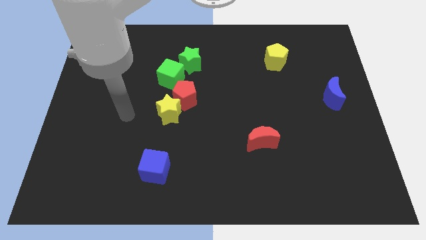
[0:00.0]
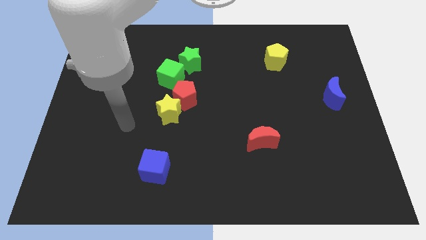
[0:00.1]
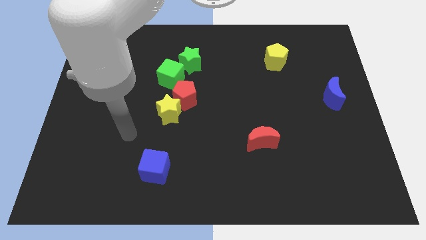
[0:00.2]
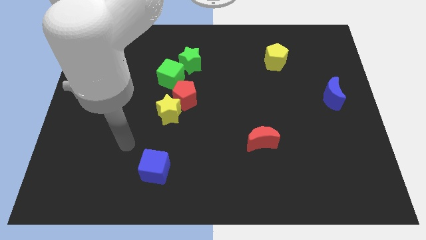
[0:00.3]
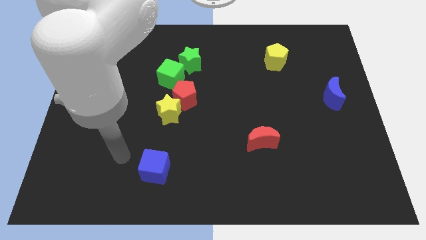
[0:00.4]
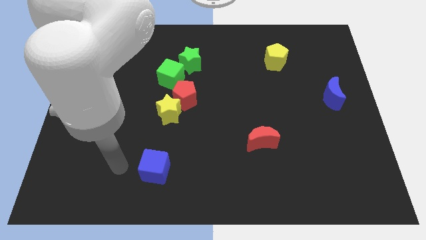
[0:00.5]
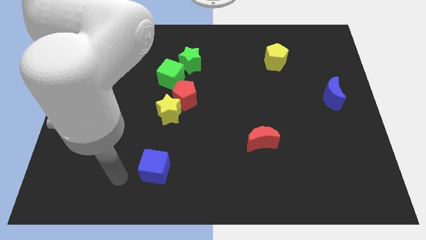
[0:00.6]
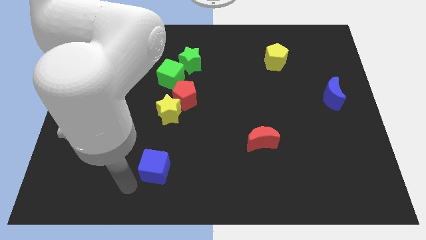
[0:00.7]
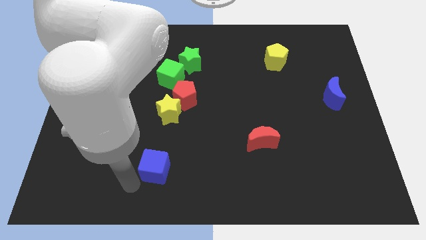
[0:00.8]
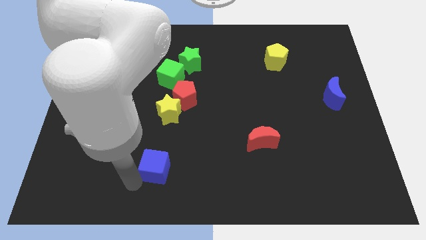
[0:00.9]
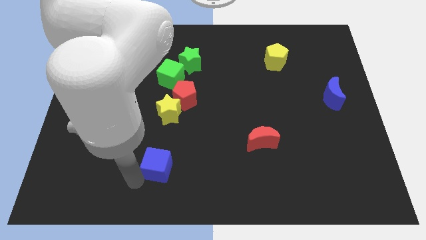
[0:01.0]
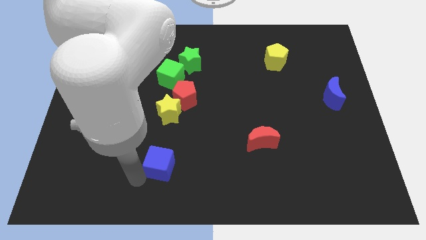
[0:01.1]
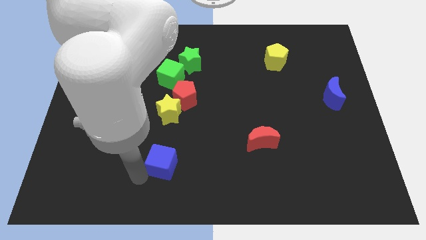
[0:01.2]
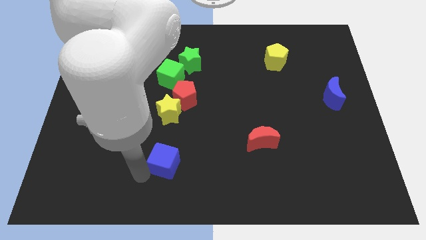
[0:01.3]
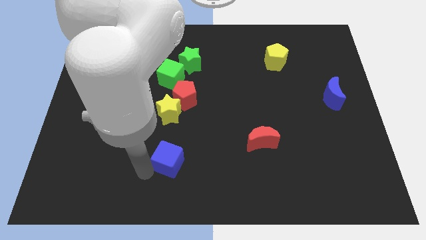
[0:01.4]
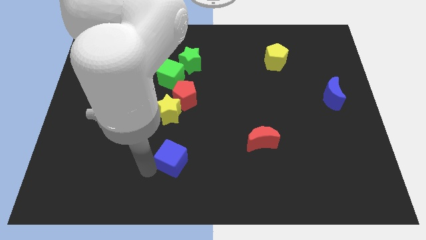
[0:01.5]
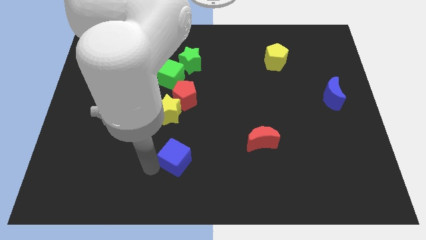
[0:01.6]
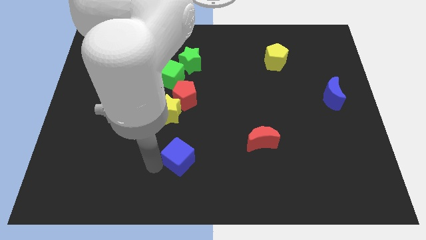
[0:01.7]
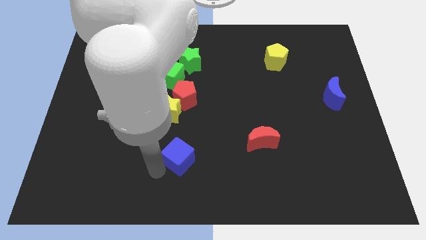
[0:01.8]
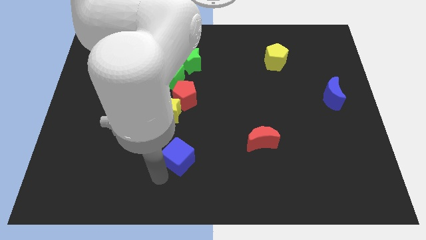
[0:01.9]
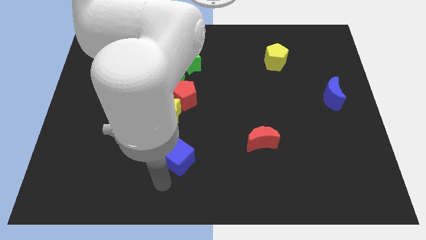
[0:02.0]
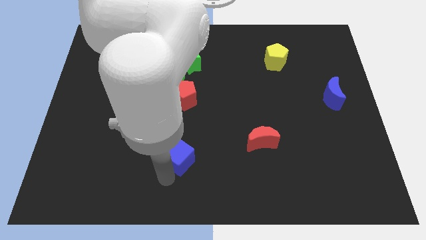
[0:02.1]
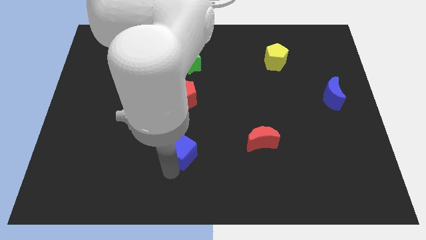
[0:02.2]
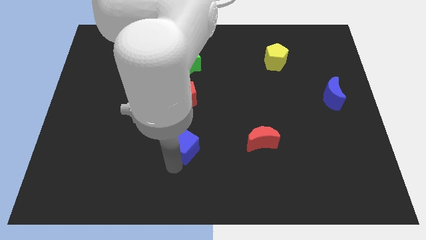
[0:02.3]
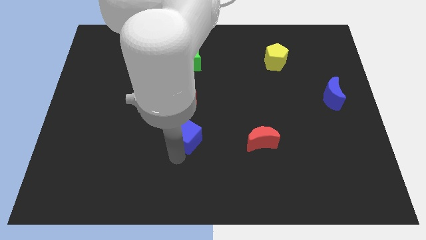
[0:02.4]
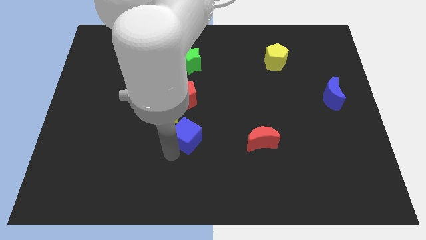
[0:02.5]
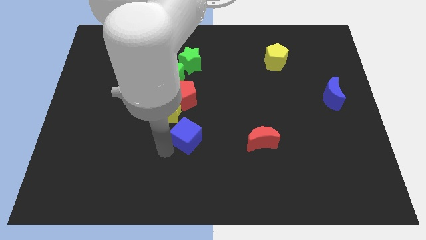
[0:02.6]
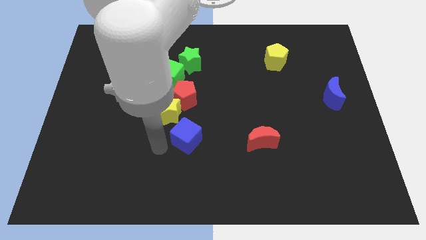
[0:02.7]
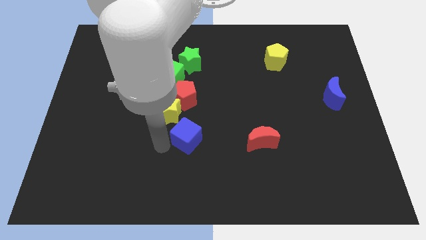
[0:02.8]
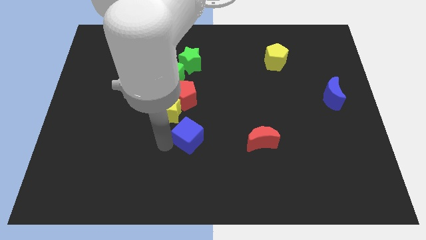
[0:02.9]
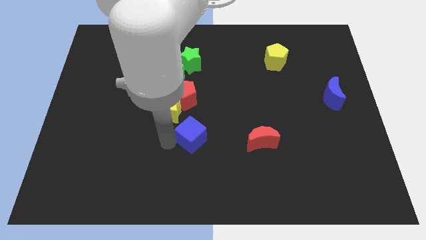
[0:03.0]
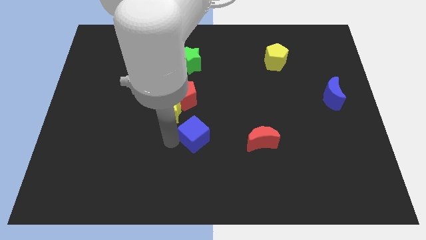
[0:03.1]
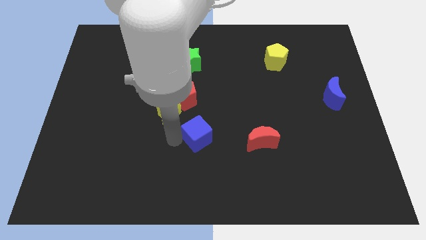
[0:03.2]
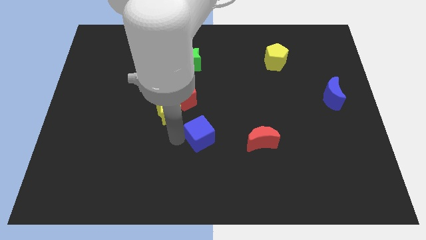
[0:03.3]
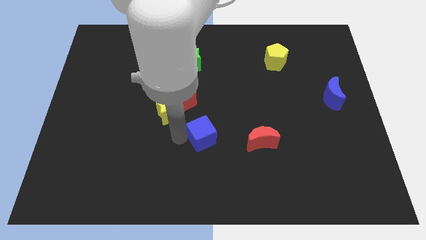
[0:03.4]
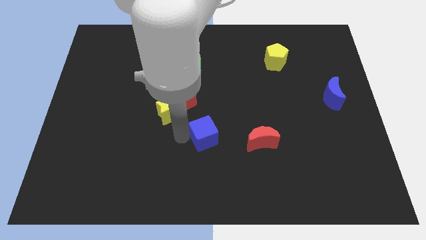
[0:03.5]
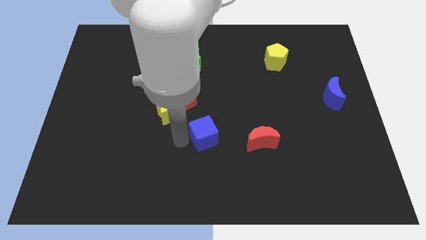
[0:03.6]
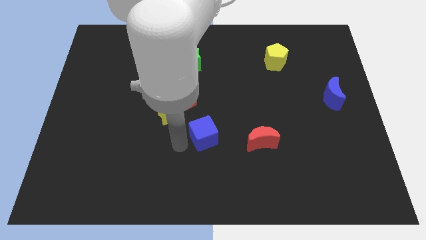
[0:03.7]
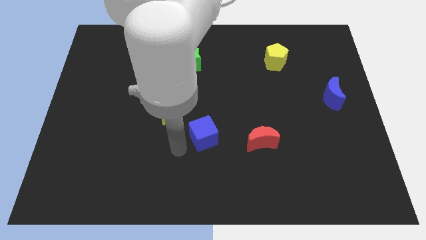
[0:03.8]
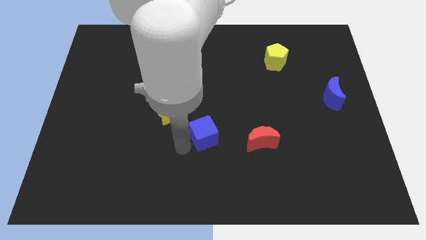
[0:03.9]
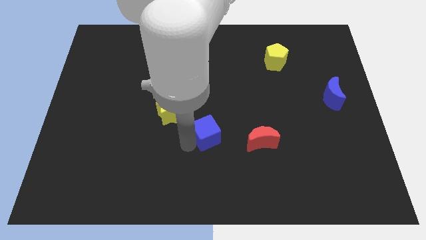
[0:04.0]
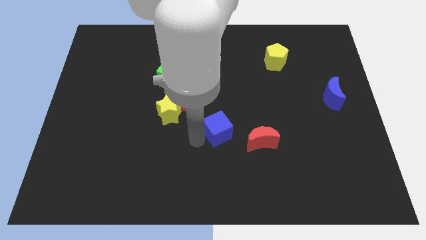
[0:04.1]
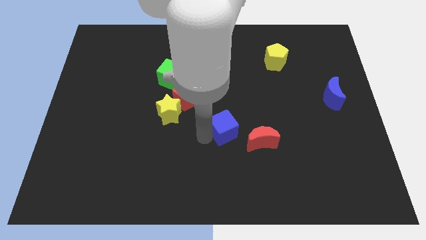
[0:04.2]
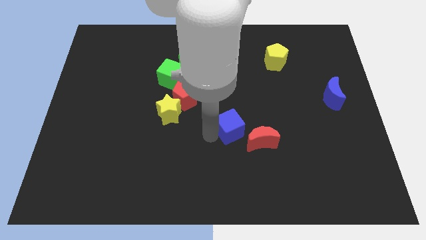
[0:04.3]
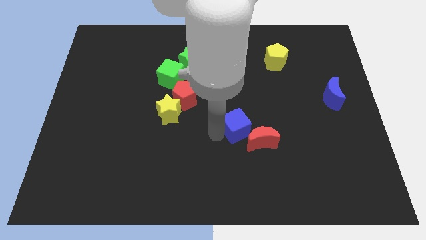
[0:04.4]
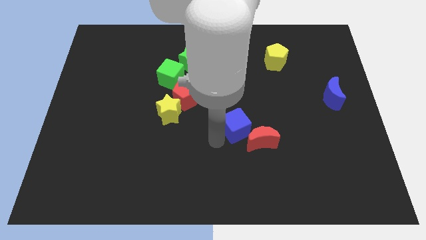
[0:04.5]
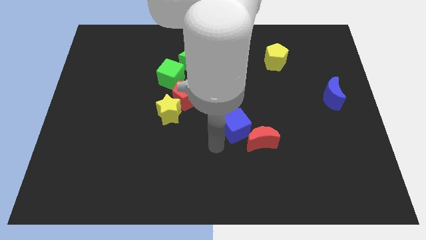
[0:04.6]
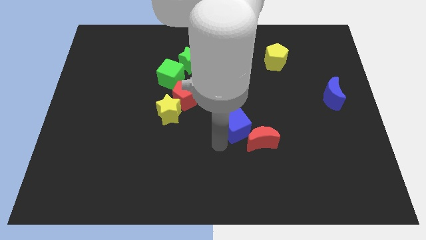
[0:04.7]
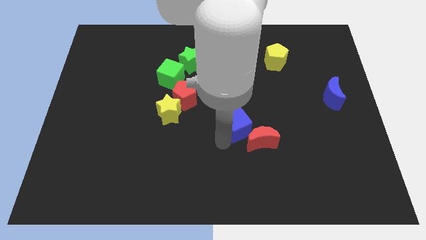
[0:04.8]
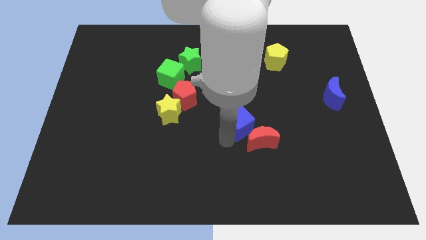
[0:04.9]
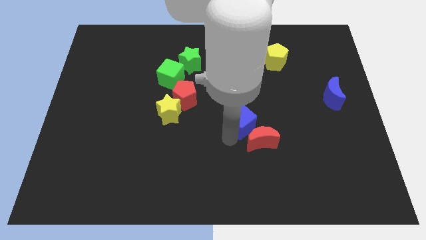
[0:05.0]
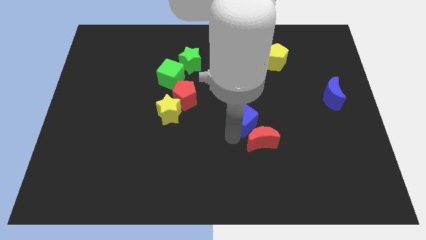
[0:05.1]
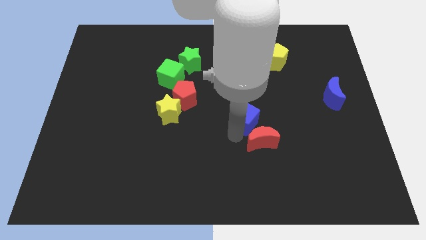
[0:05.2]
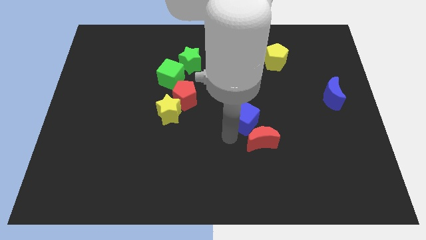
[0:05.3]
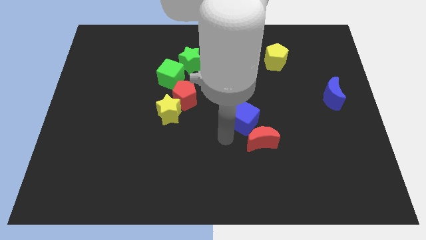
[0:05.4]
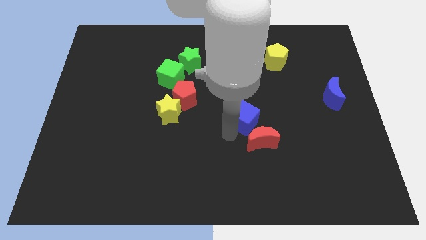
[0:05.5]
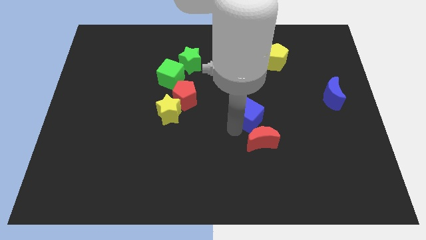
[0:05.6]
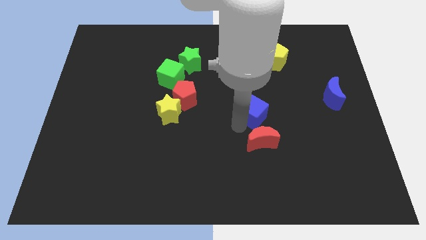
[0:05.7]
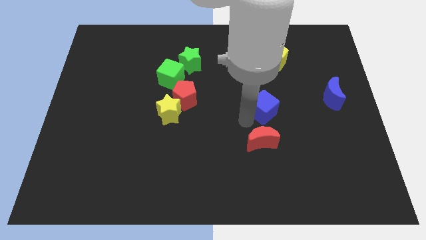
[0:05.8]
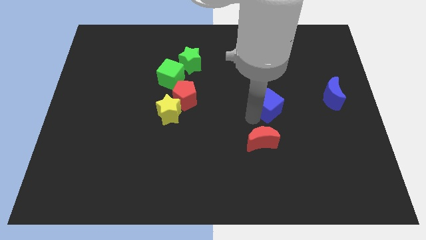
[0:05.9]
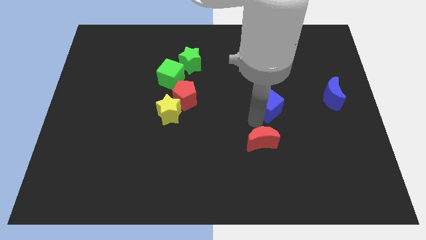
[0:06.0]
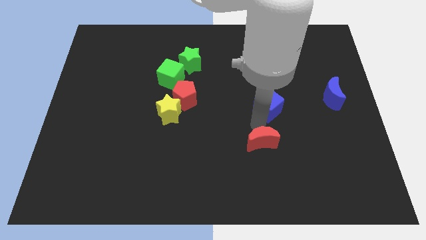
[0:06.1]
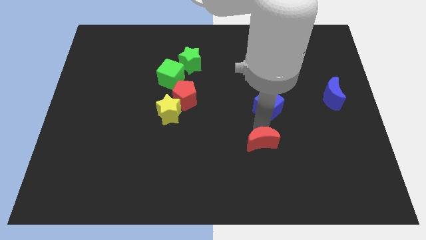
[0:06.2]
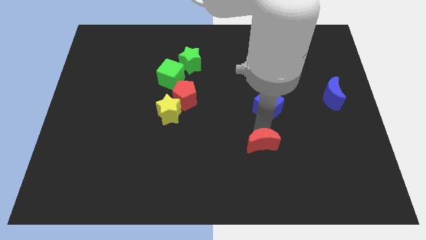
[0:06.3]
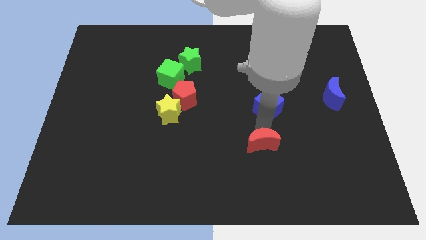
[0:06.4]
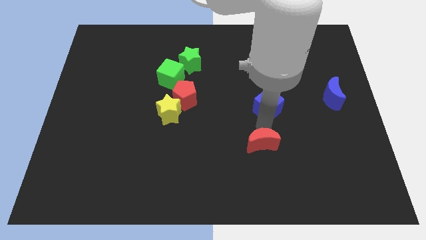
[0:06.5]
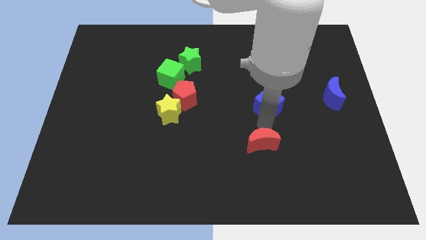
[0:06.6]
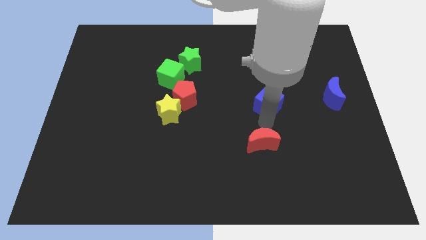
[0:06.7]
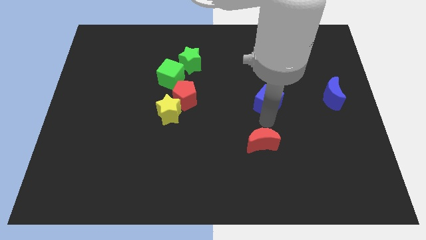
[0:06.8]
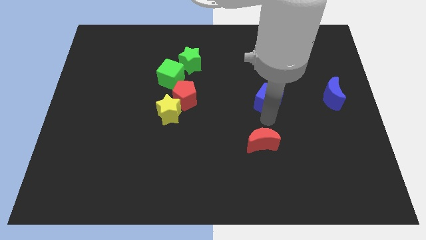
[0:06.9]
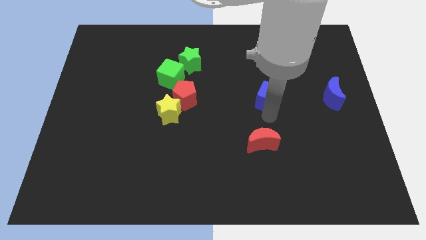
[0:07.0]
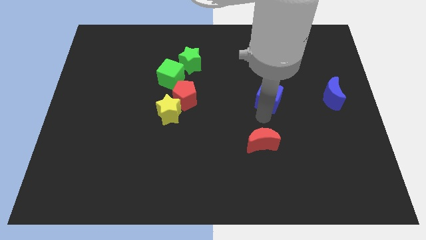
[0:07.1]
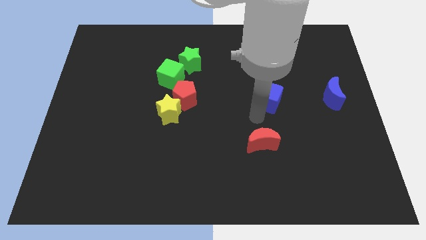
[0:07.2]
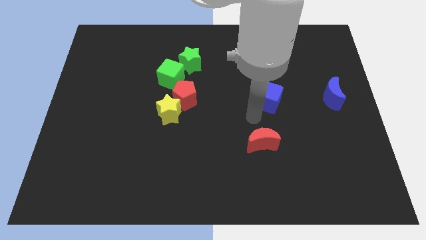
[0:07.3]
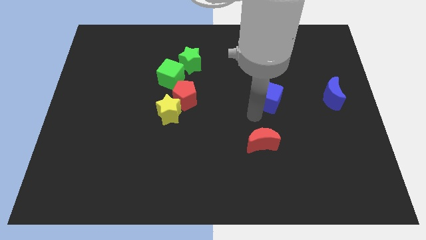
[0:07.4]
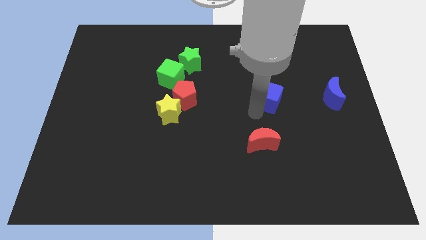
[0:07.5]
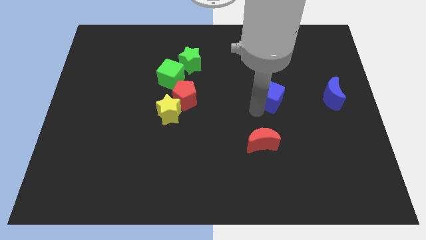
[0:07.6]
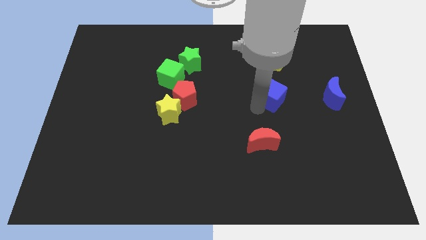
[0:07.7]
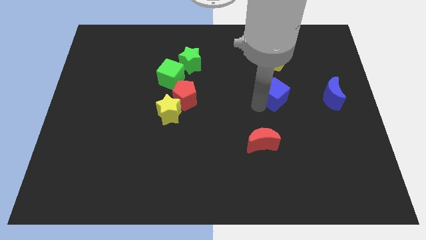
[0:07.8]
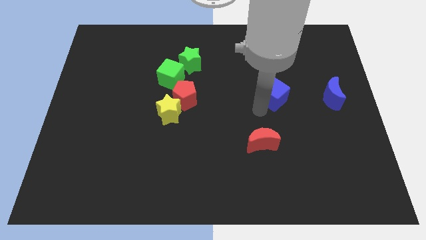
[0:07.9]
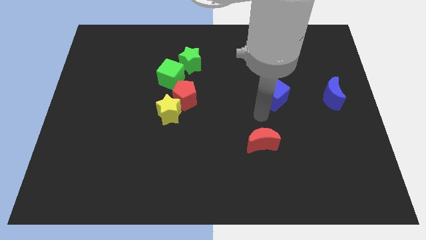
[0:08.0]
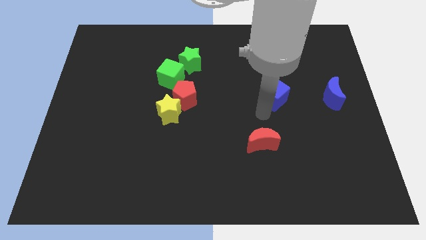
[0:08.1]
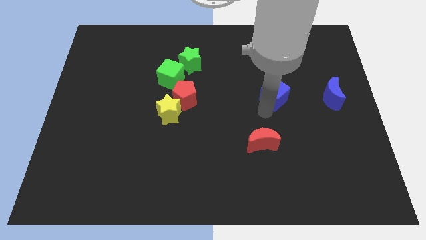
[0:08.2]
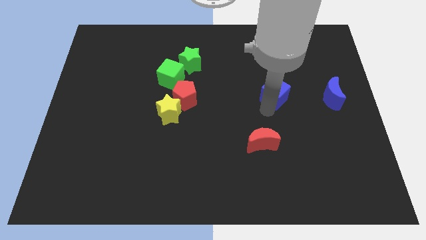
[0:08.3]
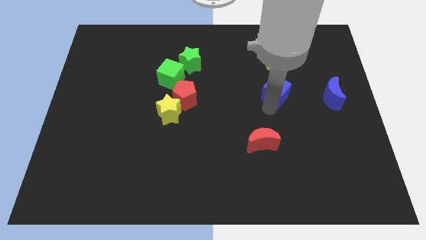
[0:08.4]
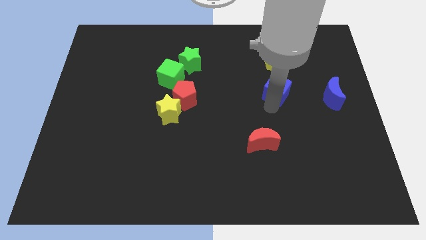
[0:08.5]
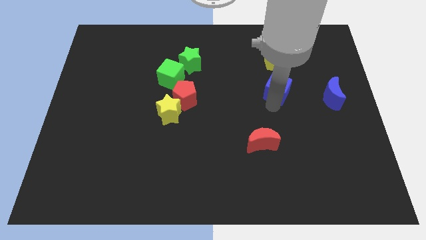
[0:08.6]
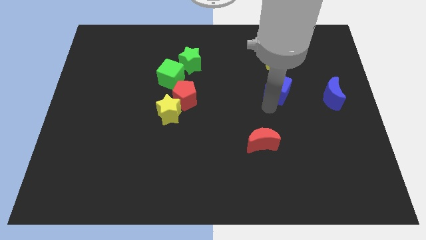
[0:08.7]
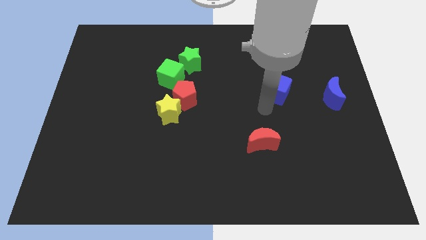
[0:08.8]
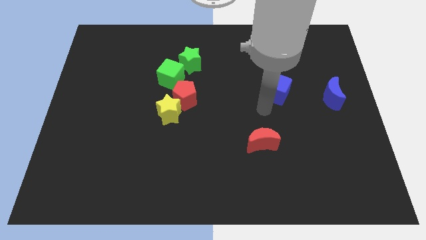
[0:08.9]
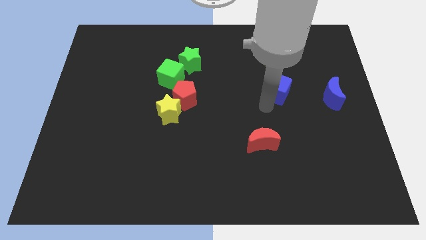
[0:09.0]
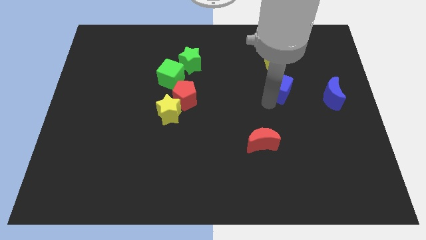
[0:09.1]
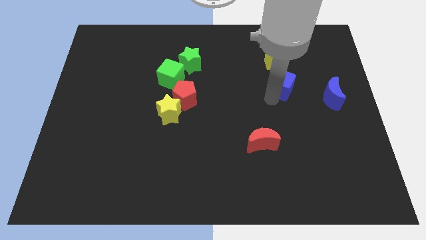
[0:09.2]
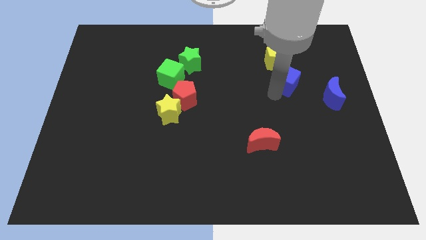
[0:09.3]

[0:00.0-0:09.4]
move the blue cube to the bottom right side of the yellow pentagon
